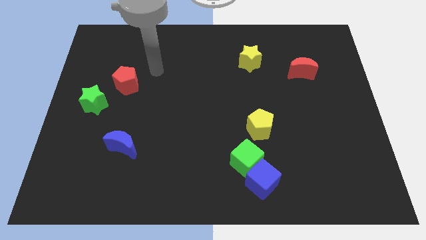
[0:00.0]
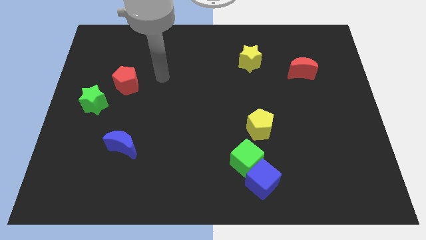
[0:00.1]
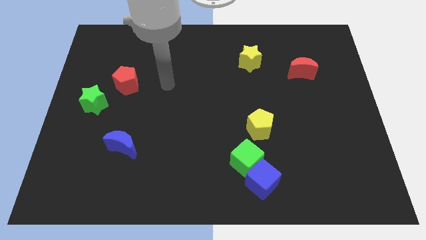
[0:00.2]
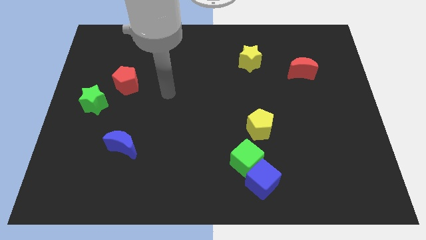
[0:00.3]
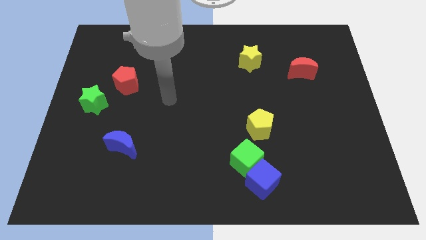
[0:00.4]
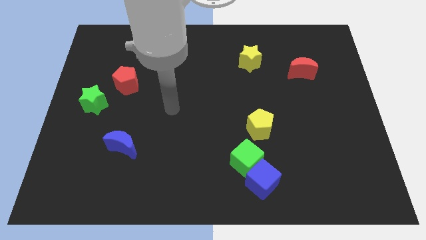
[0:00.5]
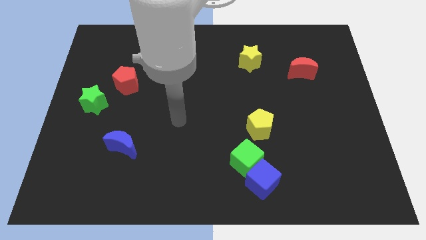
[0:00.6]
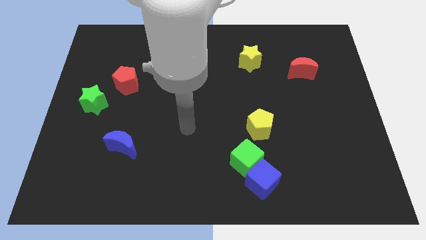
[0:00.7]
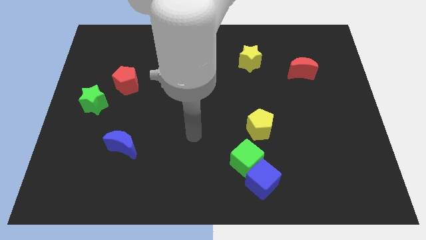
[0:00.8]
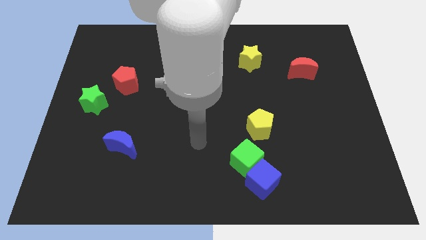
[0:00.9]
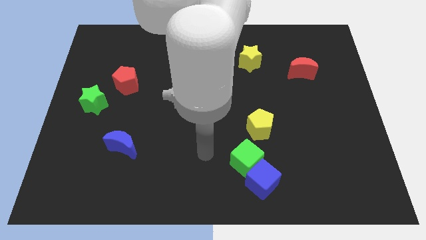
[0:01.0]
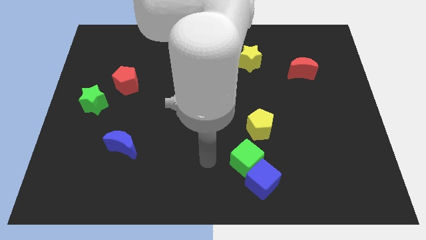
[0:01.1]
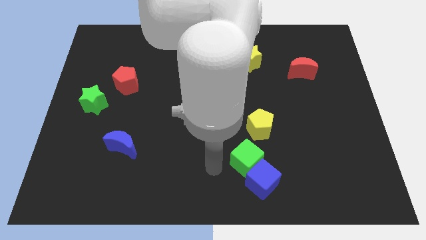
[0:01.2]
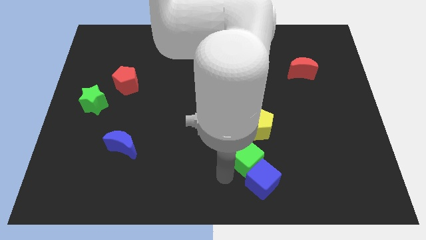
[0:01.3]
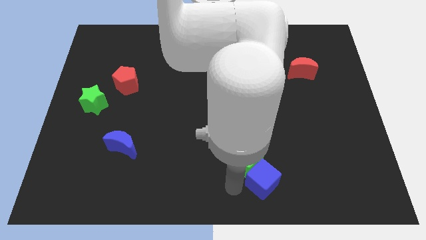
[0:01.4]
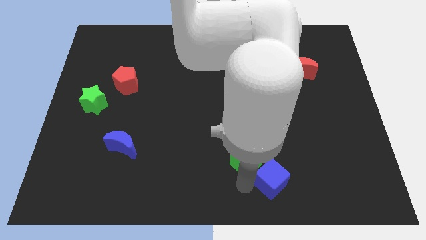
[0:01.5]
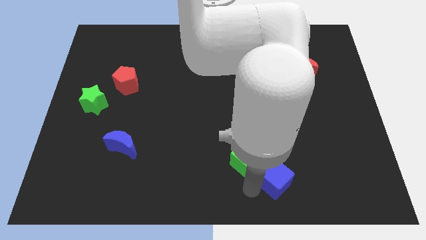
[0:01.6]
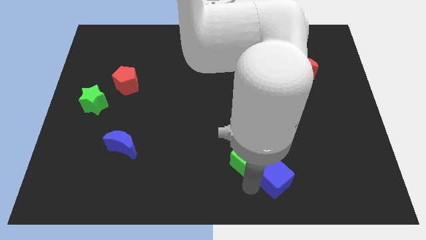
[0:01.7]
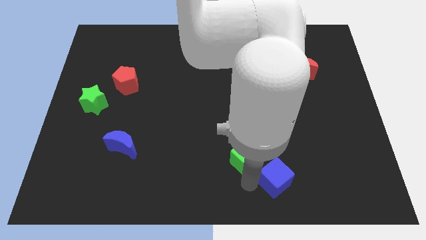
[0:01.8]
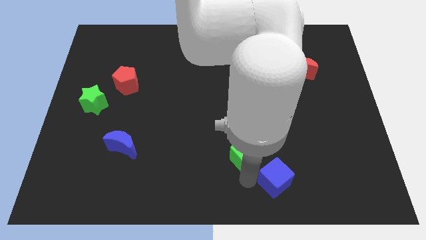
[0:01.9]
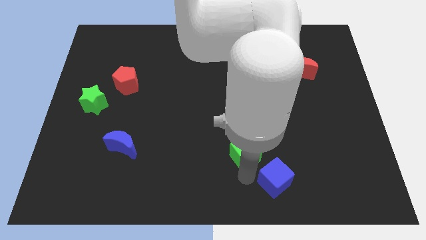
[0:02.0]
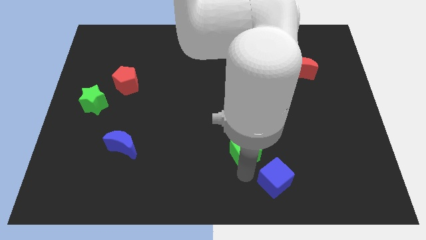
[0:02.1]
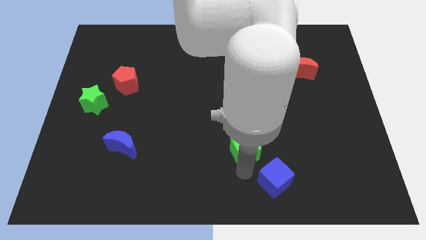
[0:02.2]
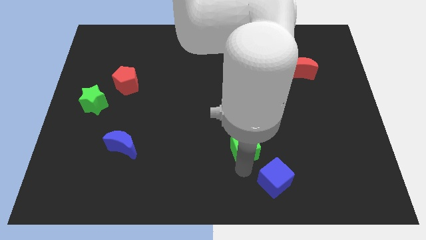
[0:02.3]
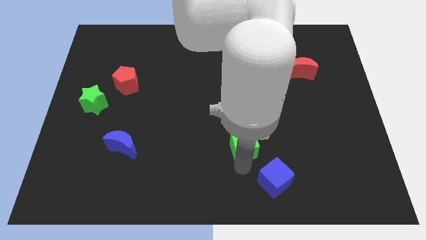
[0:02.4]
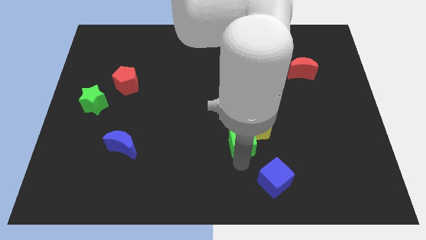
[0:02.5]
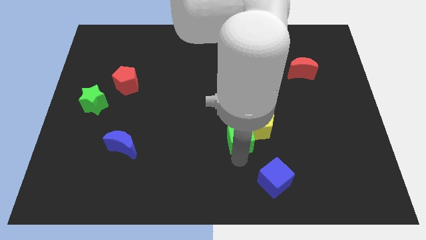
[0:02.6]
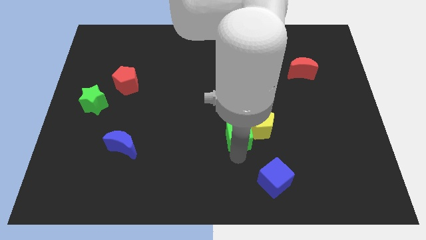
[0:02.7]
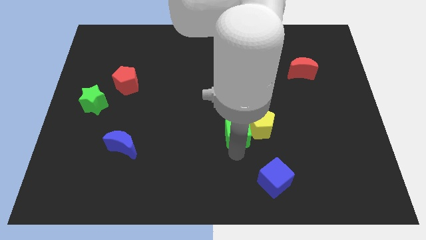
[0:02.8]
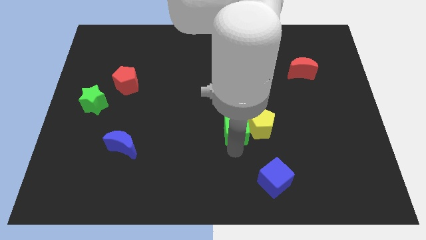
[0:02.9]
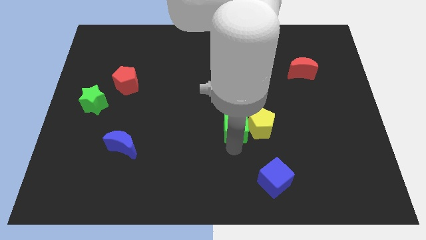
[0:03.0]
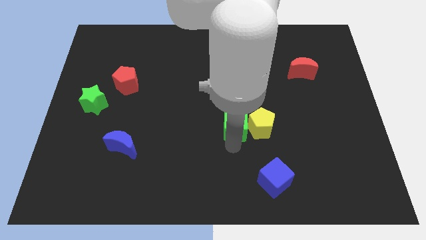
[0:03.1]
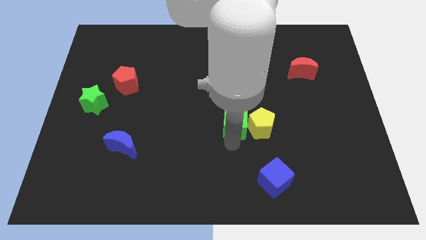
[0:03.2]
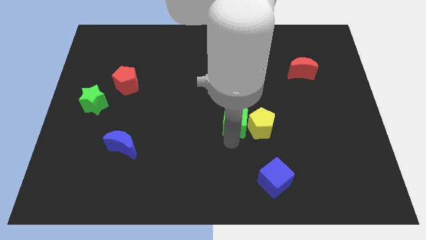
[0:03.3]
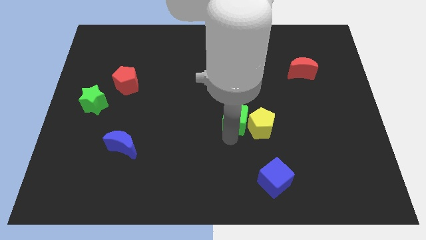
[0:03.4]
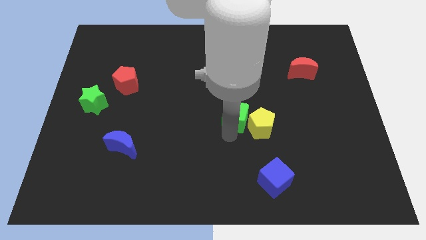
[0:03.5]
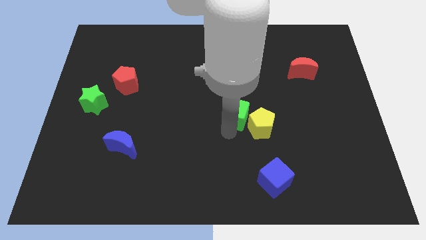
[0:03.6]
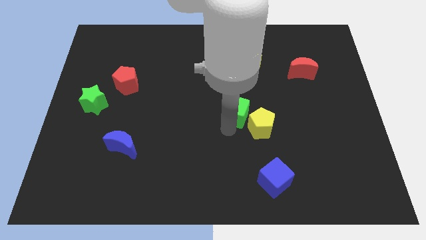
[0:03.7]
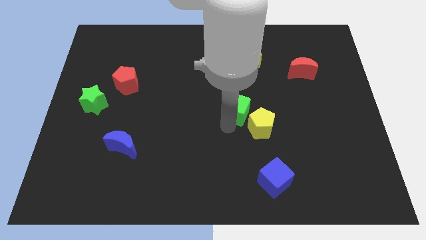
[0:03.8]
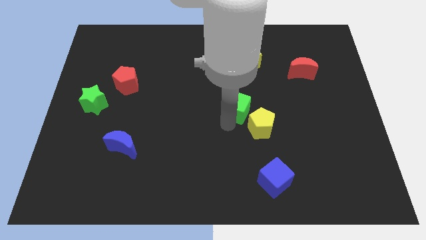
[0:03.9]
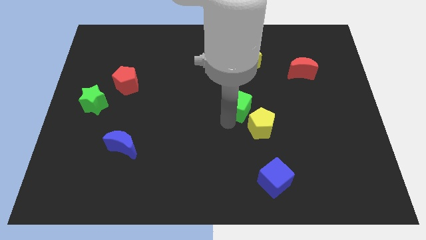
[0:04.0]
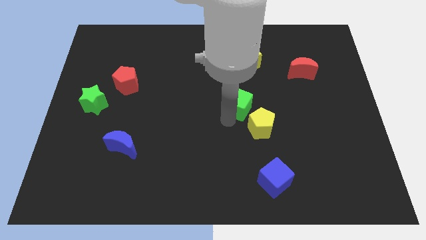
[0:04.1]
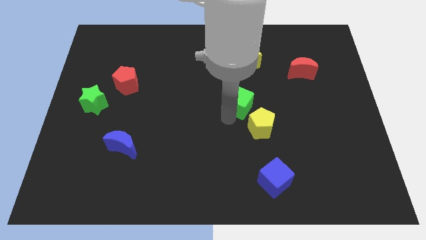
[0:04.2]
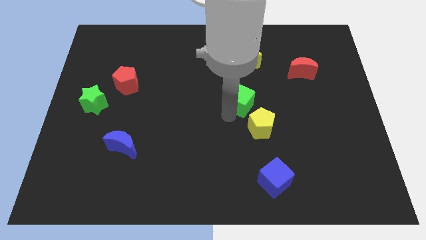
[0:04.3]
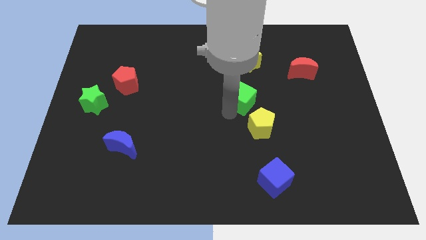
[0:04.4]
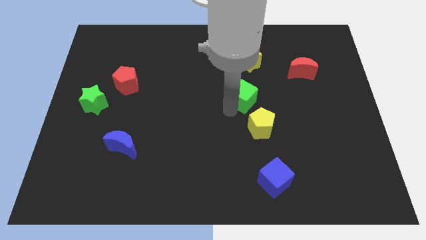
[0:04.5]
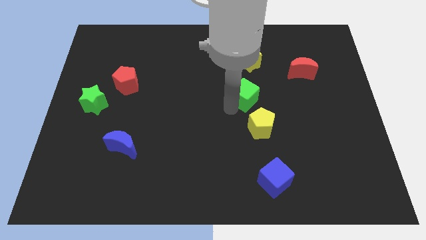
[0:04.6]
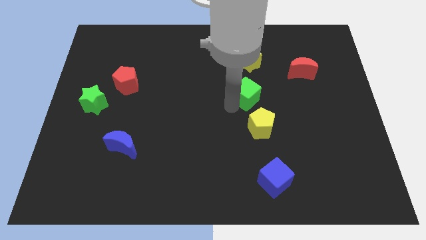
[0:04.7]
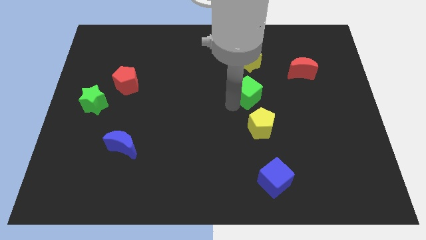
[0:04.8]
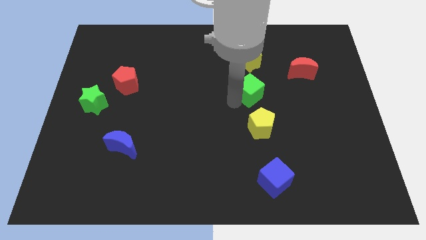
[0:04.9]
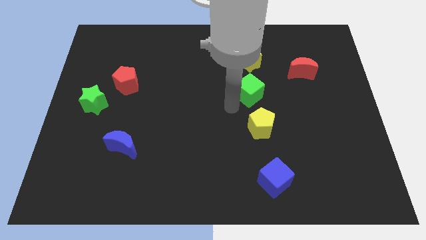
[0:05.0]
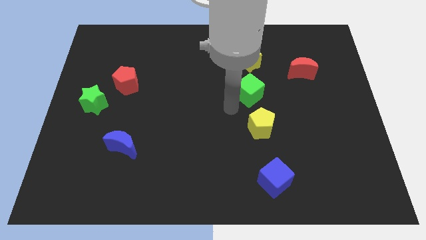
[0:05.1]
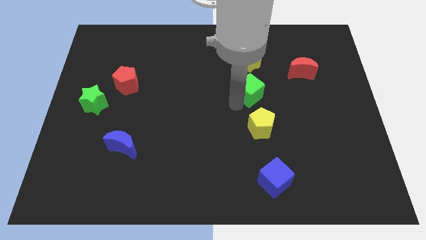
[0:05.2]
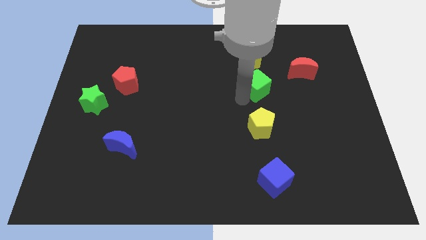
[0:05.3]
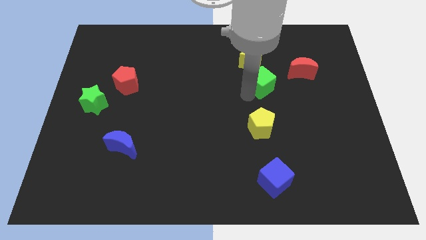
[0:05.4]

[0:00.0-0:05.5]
move the green cube diagonally down and to the right of the yellow star

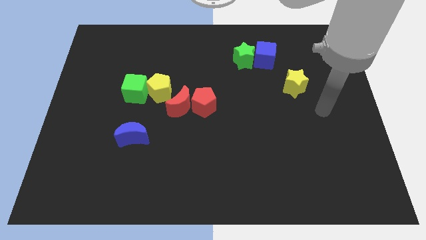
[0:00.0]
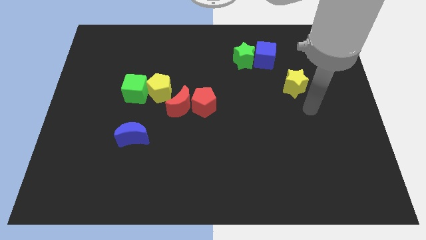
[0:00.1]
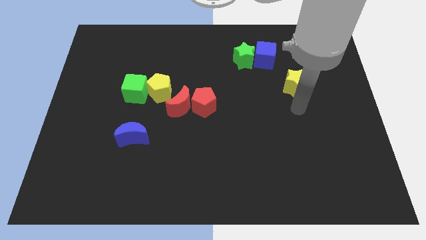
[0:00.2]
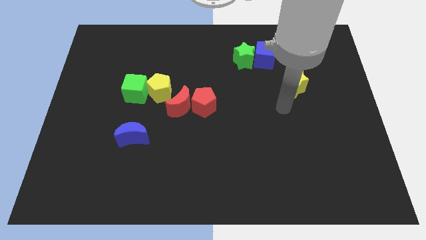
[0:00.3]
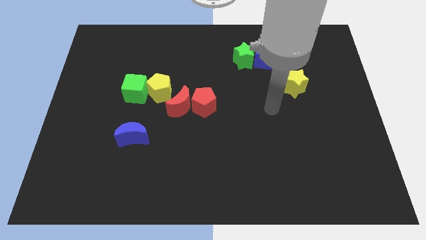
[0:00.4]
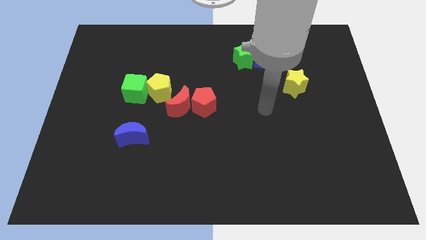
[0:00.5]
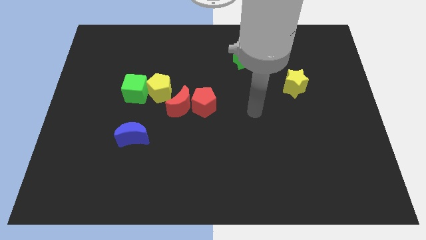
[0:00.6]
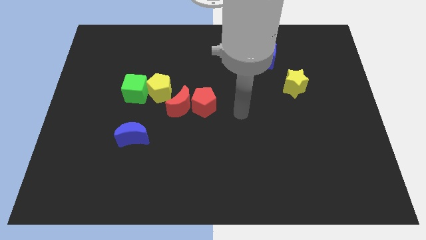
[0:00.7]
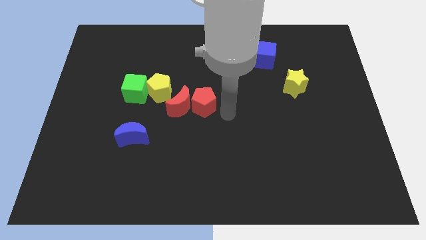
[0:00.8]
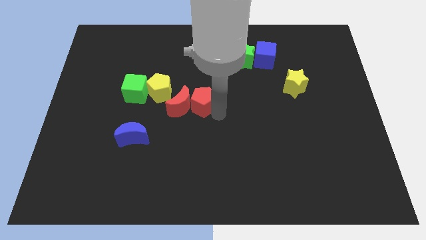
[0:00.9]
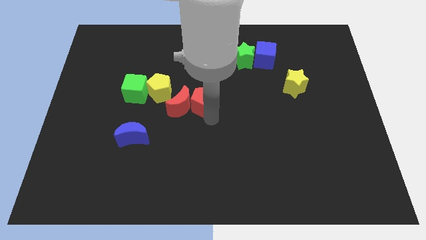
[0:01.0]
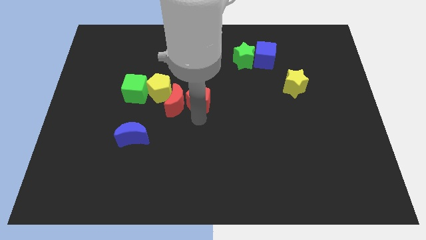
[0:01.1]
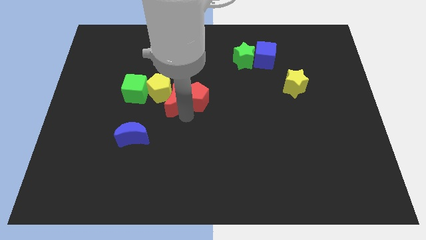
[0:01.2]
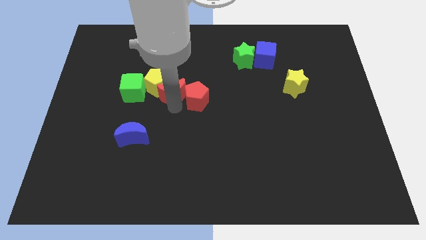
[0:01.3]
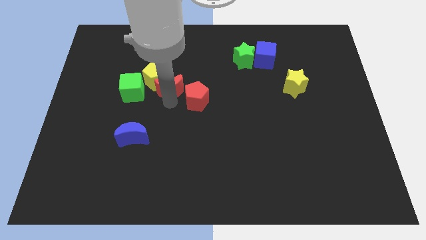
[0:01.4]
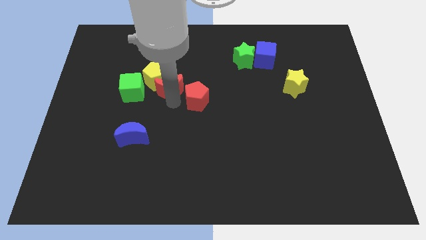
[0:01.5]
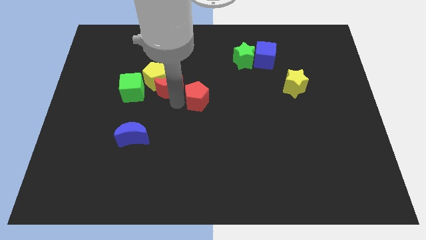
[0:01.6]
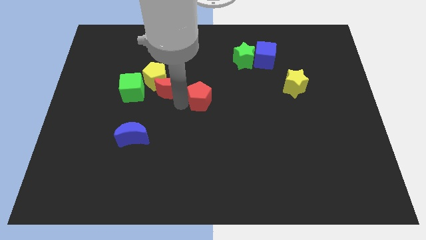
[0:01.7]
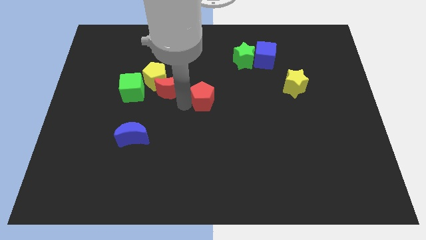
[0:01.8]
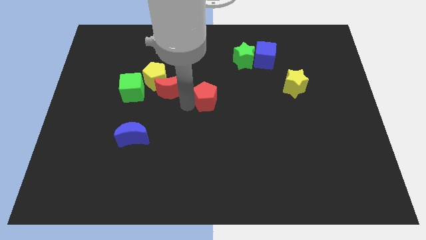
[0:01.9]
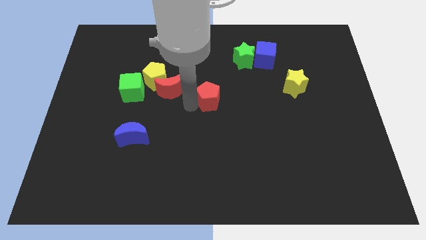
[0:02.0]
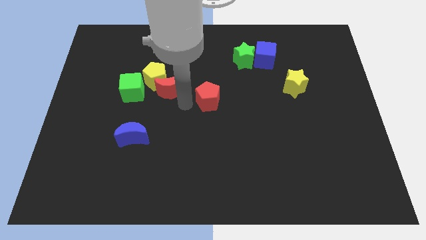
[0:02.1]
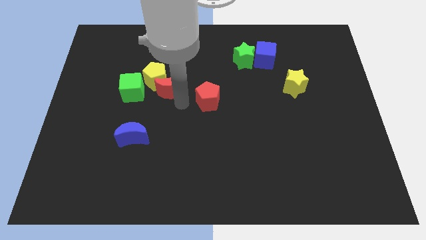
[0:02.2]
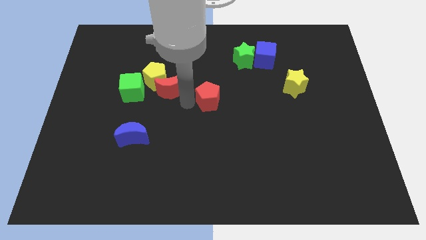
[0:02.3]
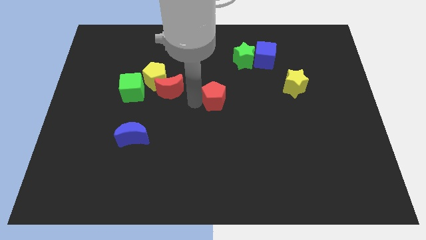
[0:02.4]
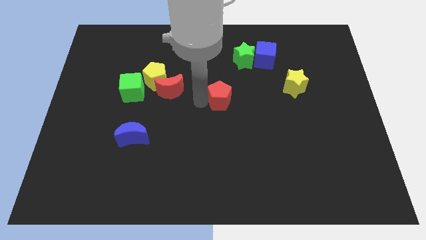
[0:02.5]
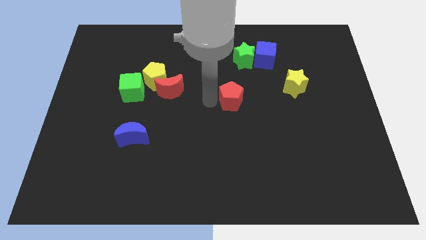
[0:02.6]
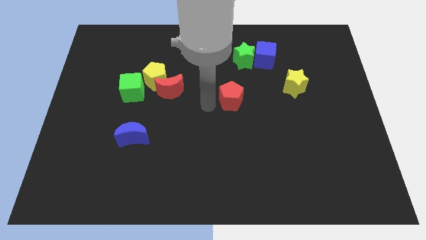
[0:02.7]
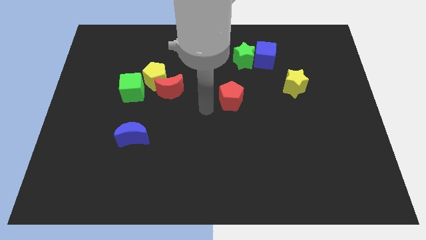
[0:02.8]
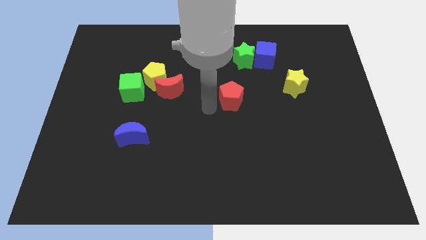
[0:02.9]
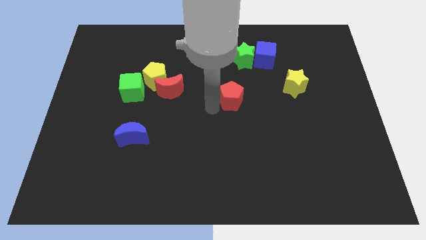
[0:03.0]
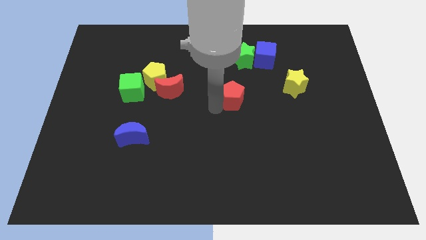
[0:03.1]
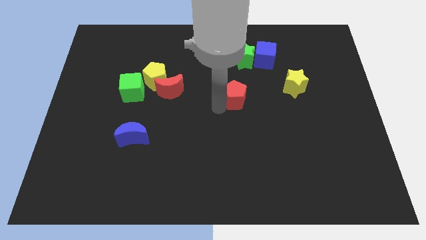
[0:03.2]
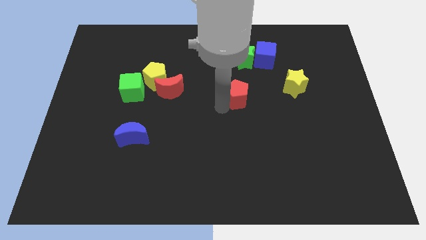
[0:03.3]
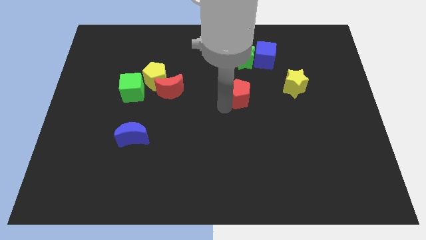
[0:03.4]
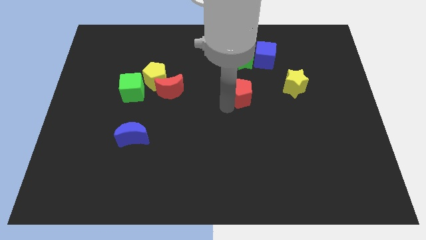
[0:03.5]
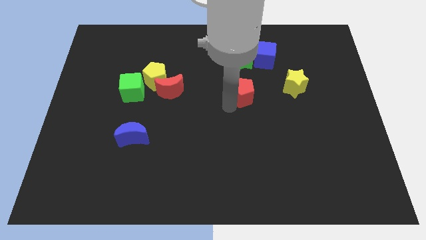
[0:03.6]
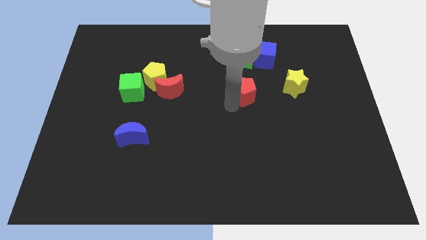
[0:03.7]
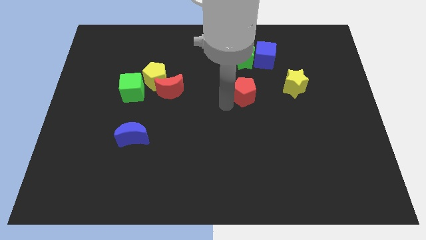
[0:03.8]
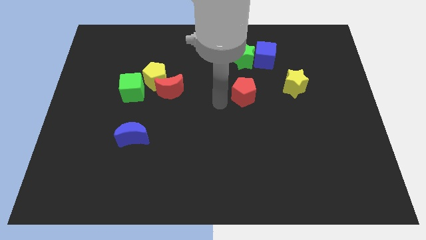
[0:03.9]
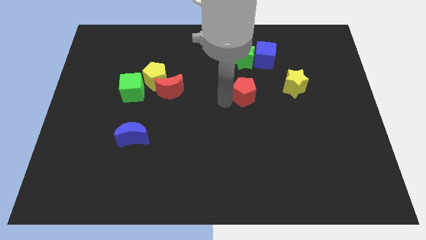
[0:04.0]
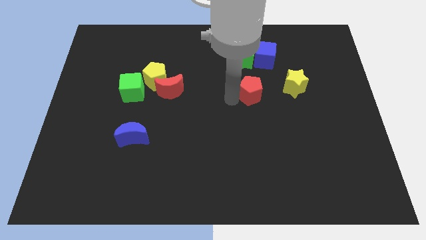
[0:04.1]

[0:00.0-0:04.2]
move the red pentagon to the bottom side of the blue cube
